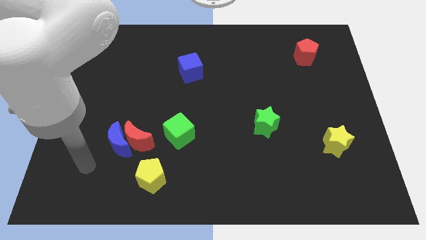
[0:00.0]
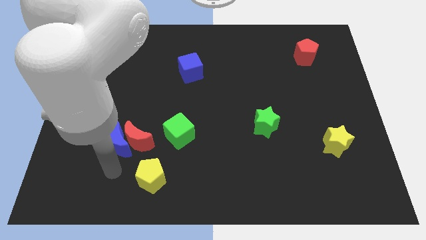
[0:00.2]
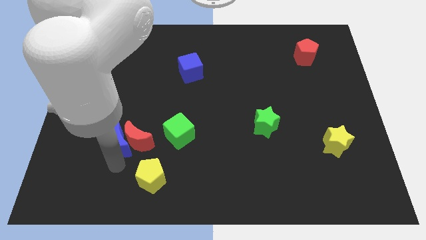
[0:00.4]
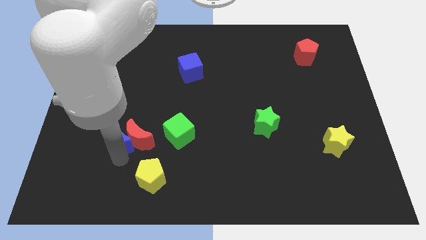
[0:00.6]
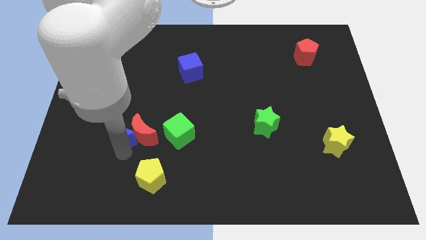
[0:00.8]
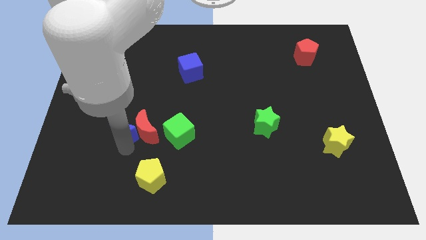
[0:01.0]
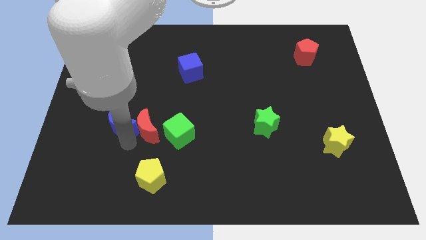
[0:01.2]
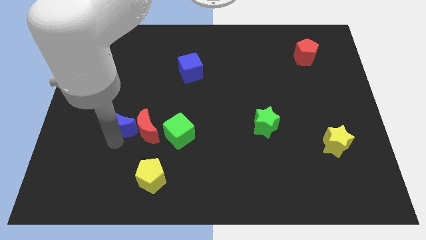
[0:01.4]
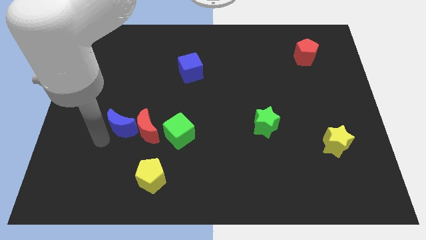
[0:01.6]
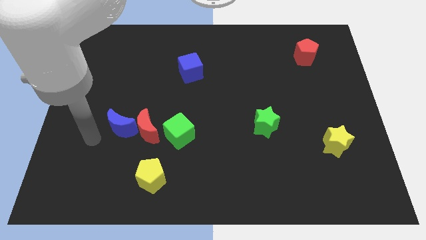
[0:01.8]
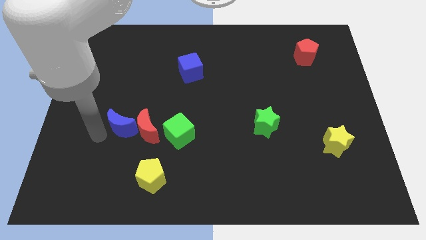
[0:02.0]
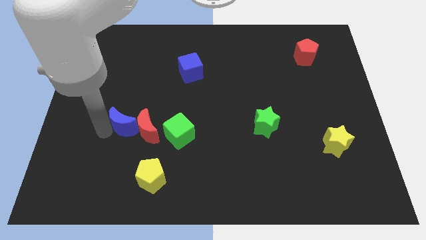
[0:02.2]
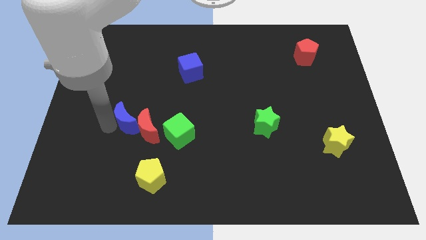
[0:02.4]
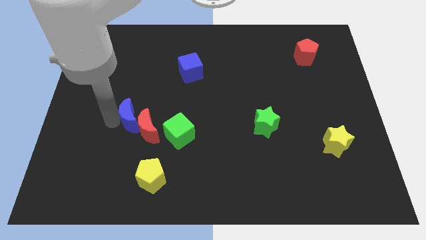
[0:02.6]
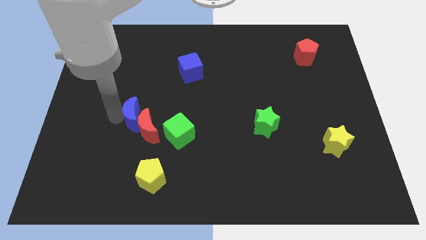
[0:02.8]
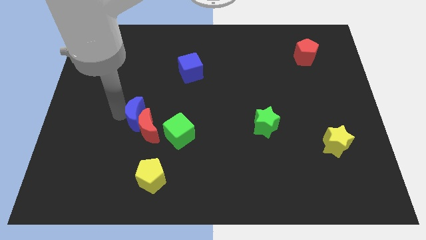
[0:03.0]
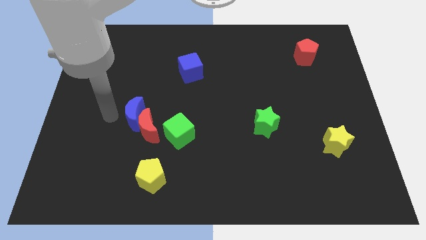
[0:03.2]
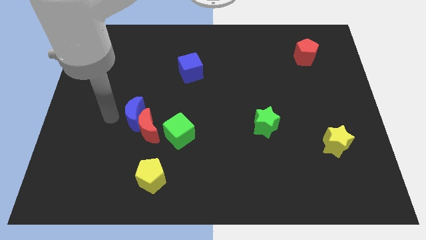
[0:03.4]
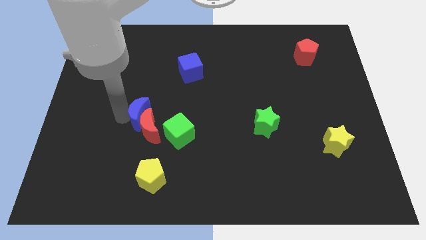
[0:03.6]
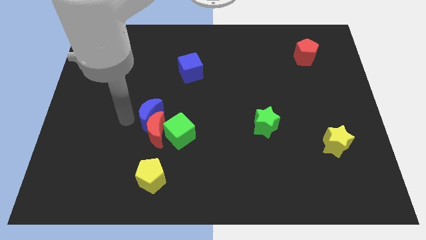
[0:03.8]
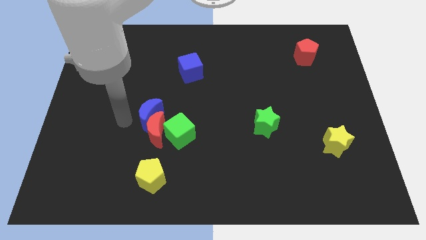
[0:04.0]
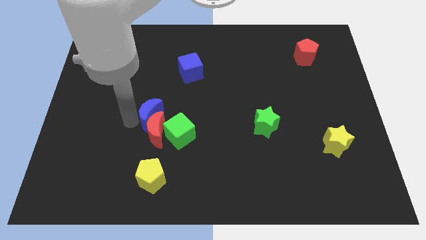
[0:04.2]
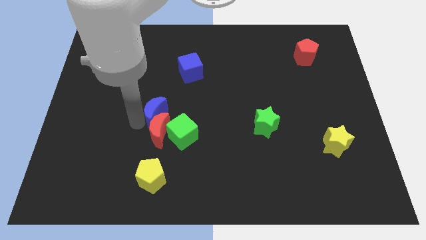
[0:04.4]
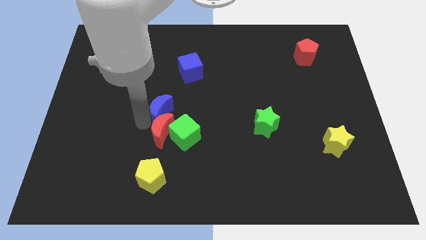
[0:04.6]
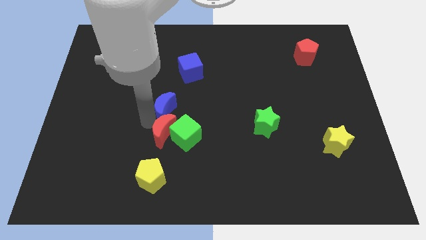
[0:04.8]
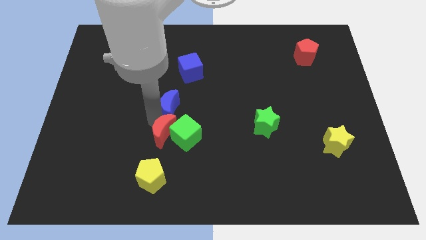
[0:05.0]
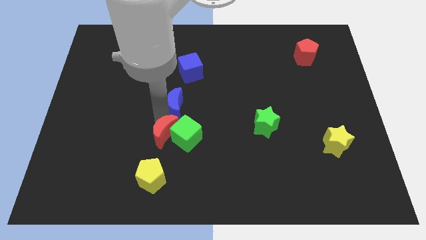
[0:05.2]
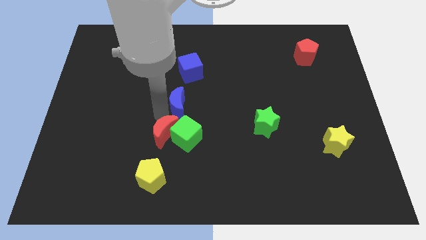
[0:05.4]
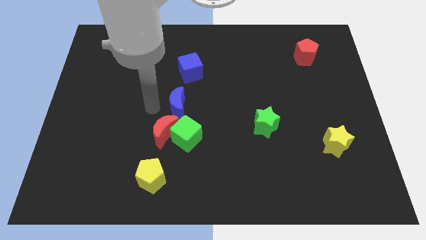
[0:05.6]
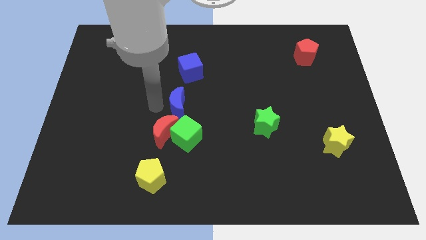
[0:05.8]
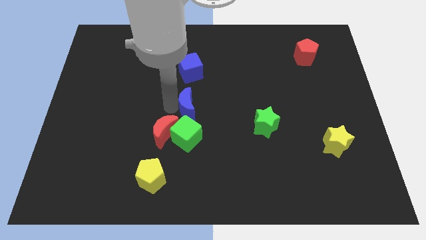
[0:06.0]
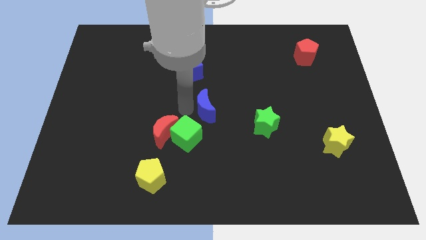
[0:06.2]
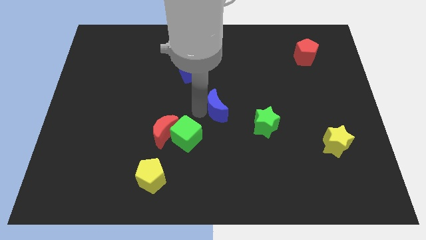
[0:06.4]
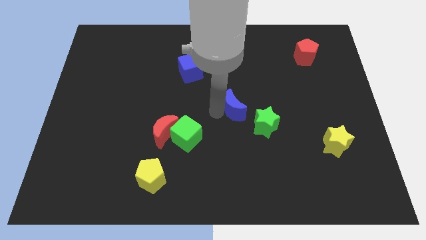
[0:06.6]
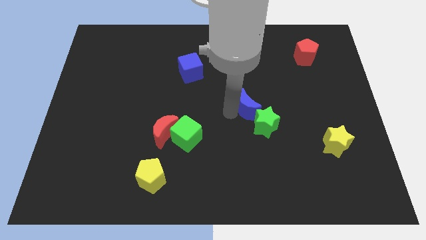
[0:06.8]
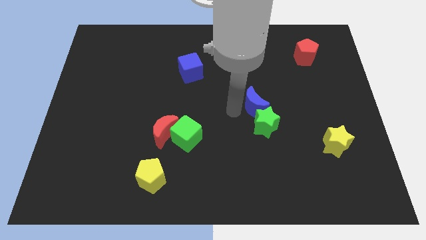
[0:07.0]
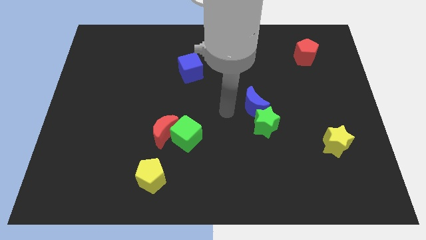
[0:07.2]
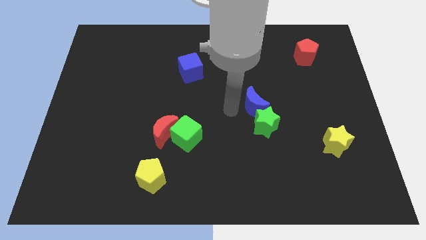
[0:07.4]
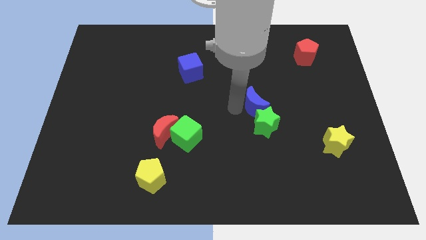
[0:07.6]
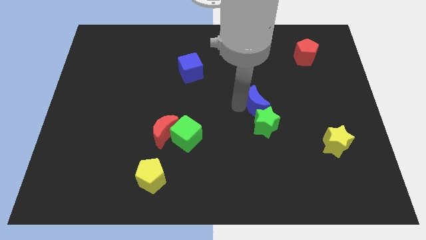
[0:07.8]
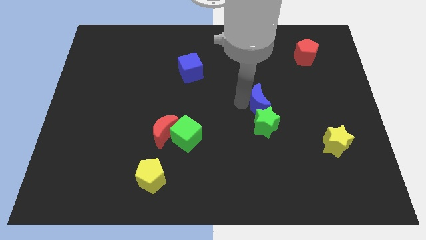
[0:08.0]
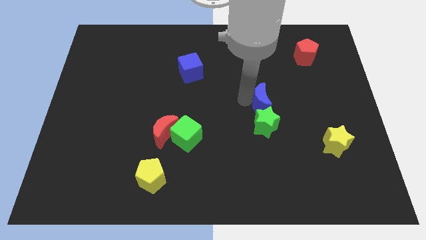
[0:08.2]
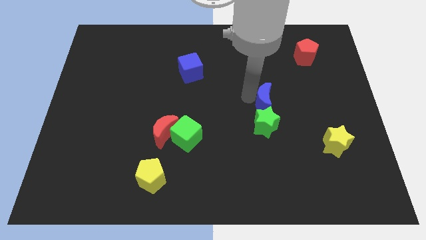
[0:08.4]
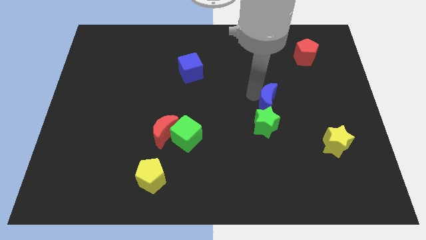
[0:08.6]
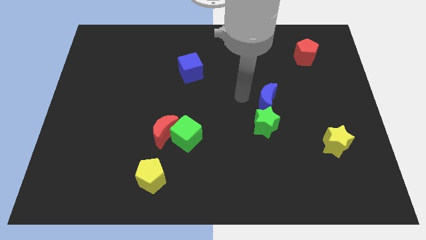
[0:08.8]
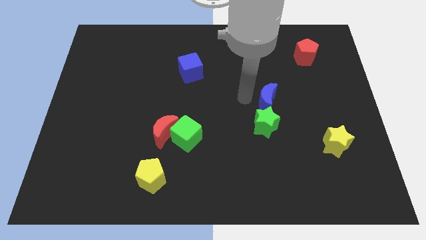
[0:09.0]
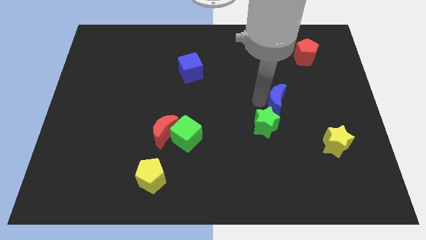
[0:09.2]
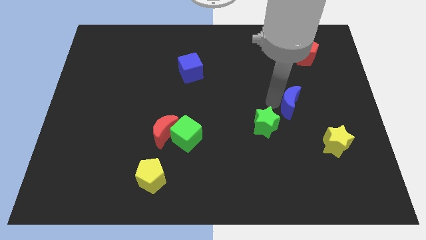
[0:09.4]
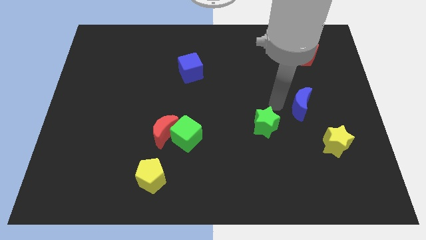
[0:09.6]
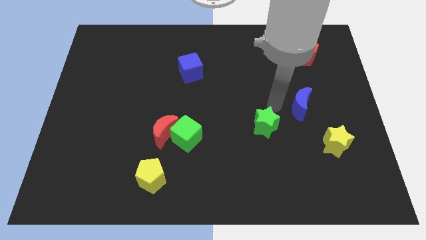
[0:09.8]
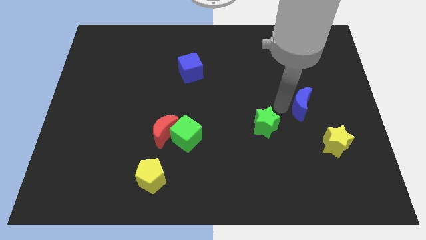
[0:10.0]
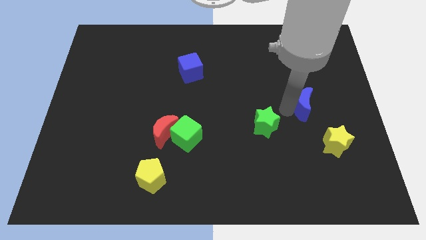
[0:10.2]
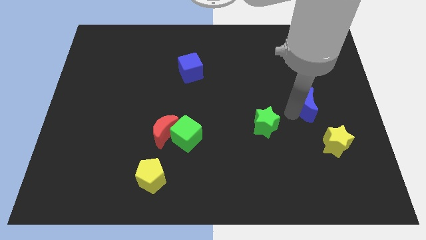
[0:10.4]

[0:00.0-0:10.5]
move the blue moon to the top side of the yellow star

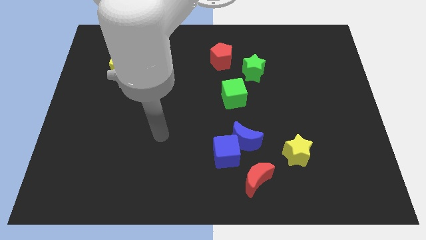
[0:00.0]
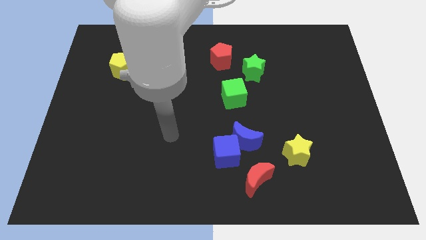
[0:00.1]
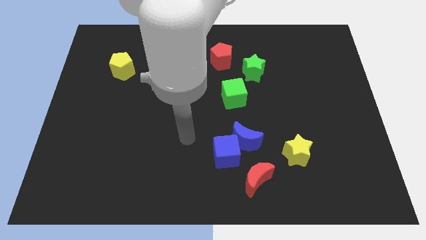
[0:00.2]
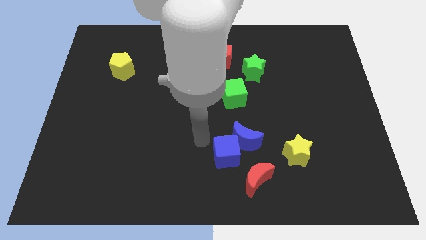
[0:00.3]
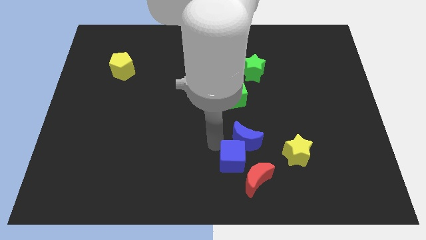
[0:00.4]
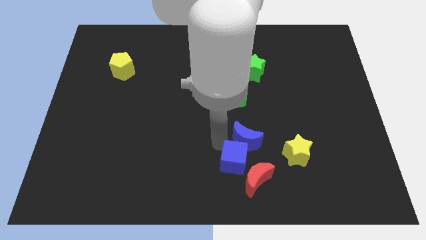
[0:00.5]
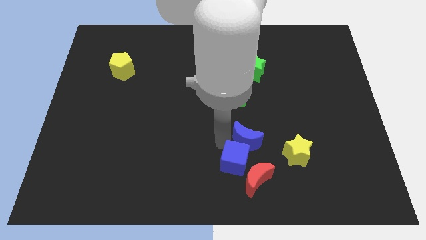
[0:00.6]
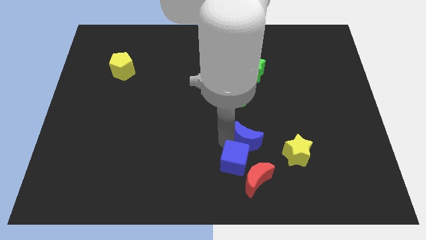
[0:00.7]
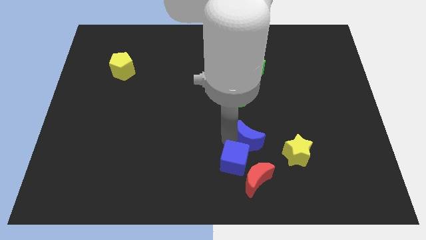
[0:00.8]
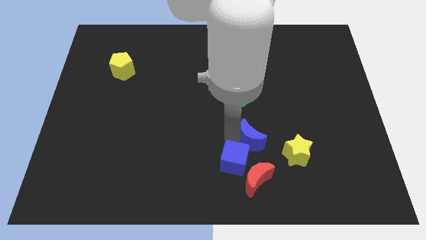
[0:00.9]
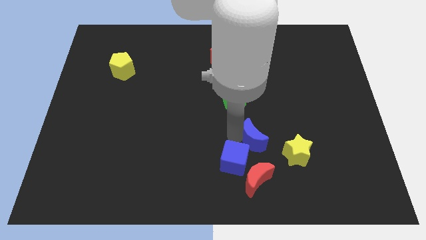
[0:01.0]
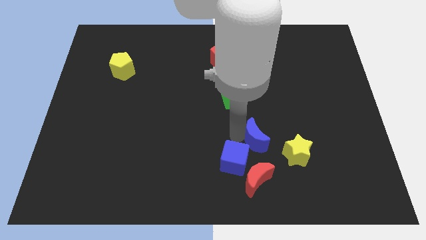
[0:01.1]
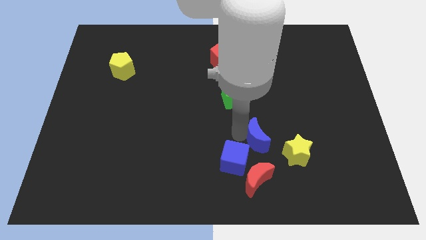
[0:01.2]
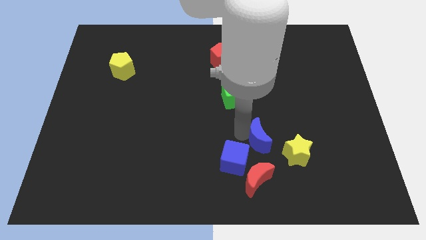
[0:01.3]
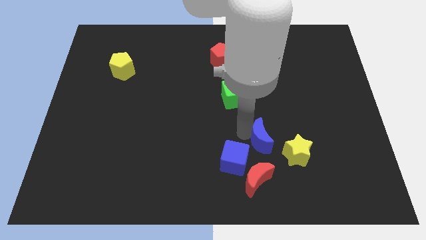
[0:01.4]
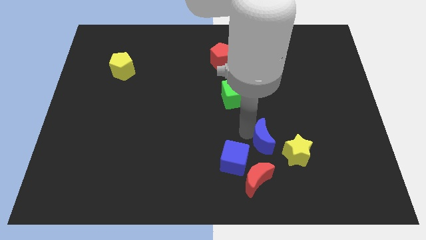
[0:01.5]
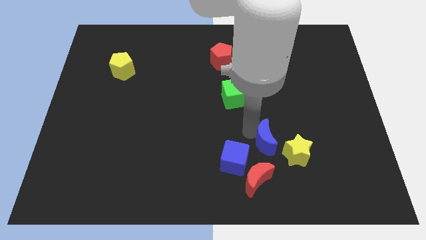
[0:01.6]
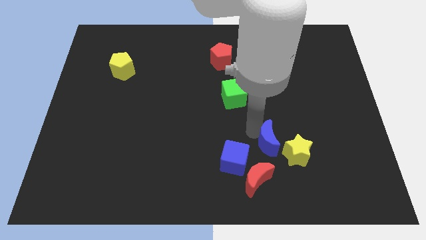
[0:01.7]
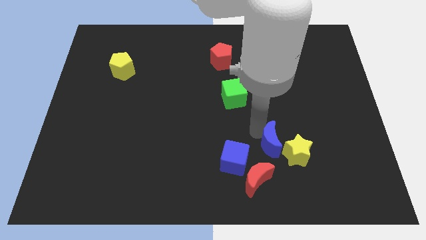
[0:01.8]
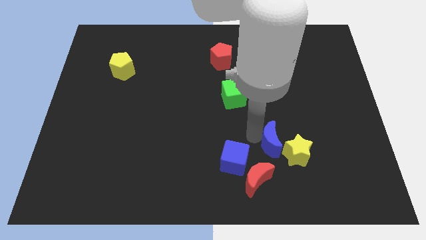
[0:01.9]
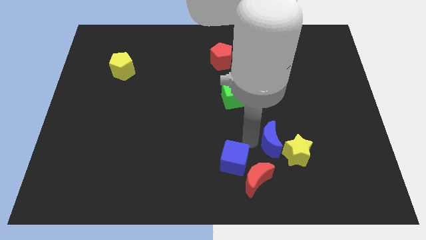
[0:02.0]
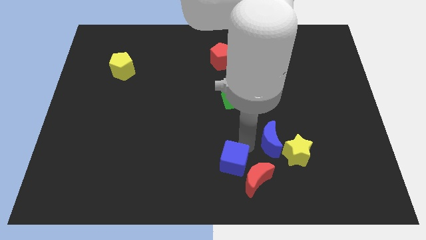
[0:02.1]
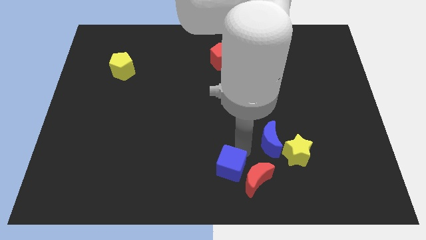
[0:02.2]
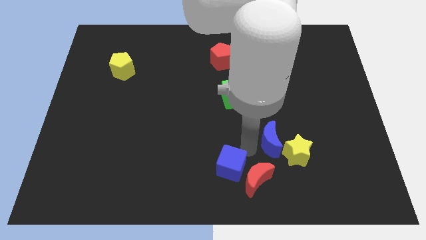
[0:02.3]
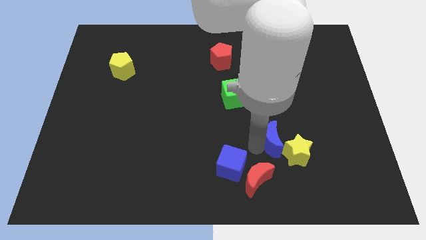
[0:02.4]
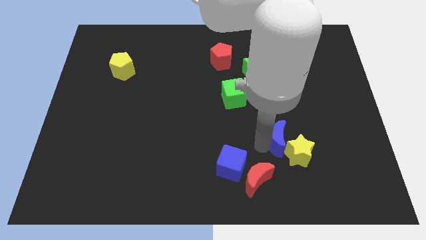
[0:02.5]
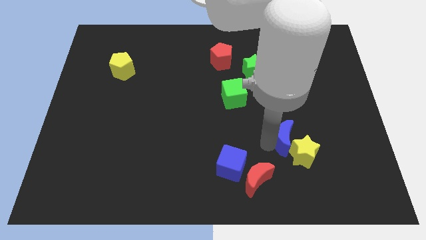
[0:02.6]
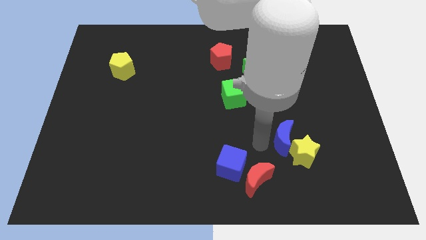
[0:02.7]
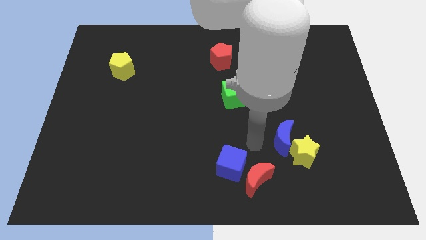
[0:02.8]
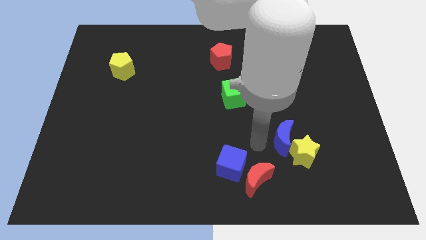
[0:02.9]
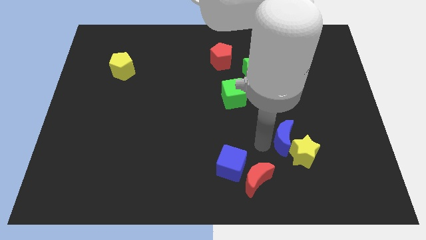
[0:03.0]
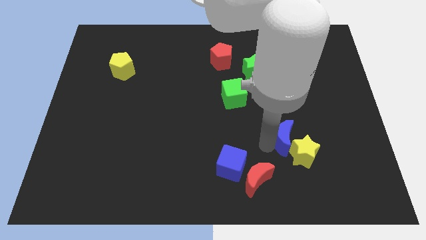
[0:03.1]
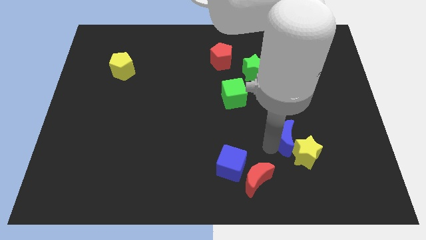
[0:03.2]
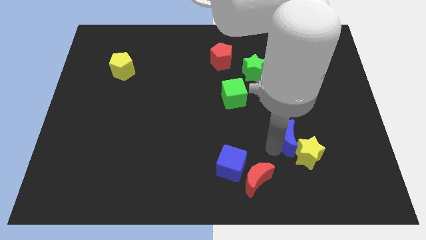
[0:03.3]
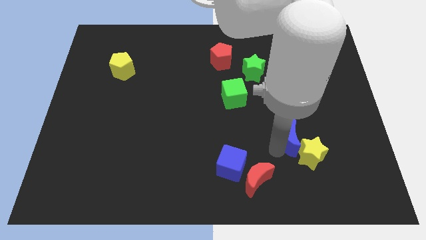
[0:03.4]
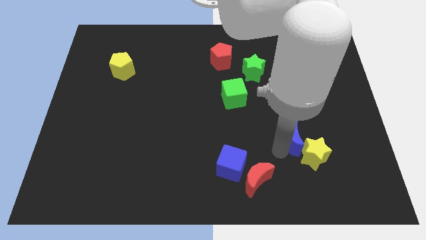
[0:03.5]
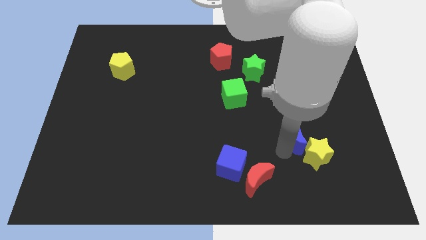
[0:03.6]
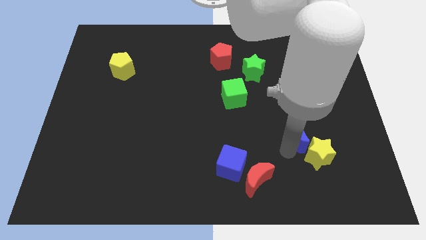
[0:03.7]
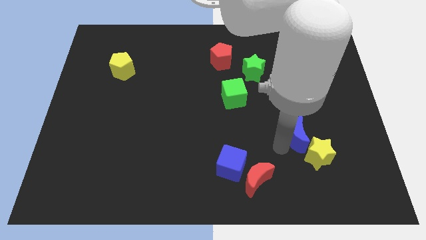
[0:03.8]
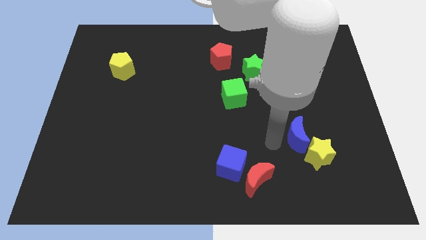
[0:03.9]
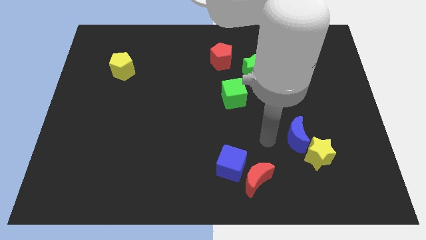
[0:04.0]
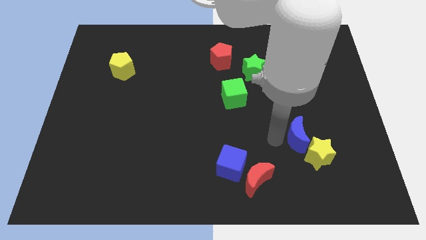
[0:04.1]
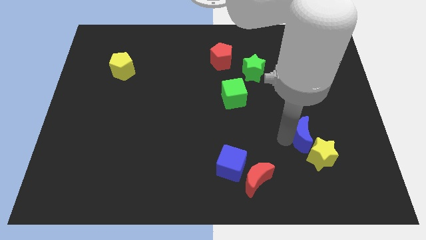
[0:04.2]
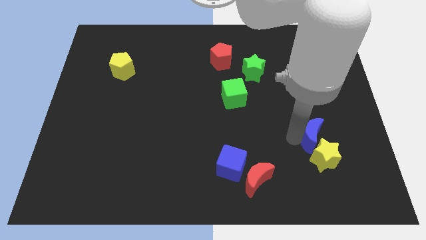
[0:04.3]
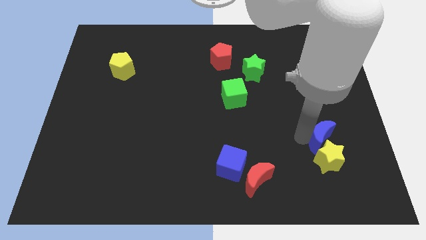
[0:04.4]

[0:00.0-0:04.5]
move the blue moon diagonally up and to the right of the yellow star
